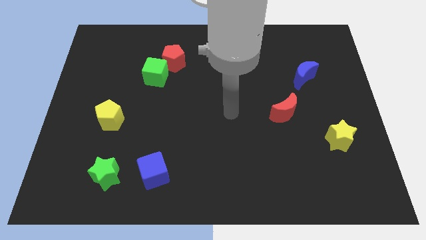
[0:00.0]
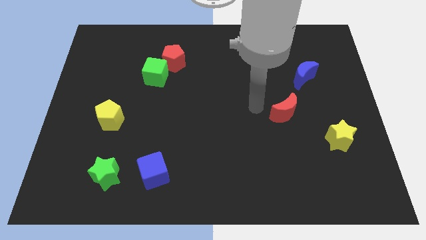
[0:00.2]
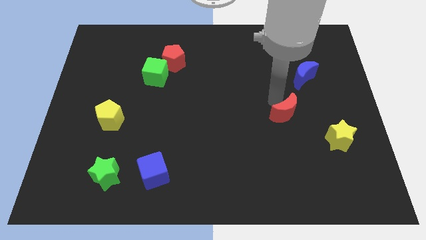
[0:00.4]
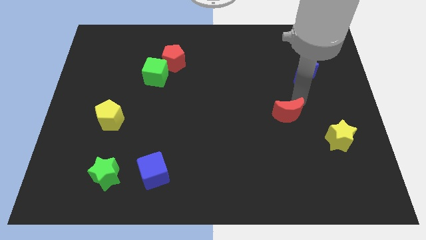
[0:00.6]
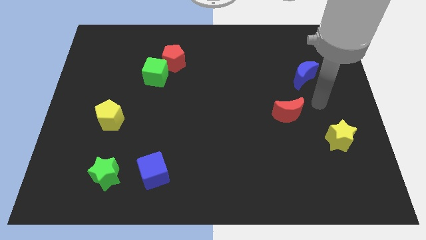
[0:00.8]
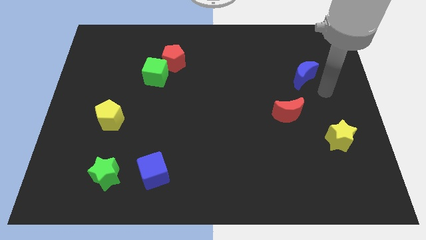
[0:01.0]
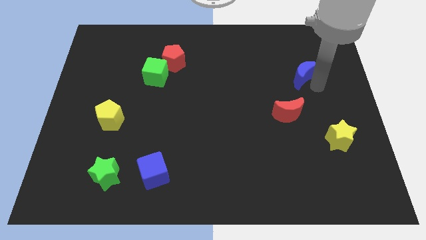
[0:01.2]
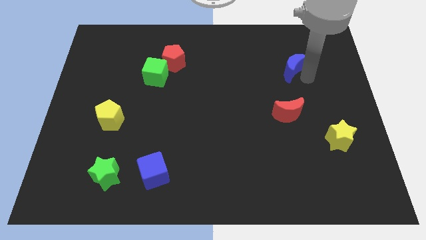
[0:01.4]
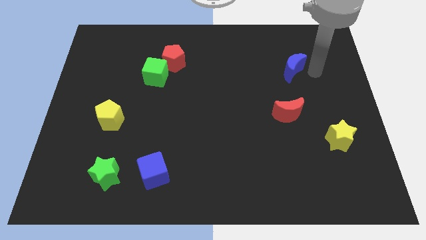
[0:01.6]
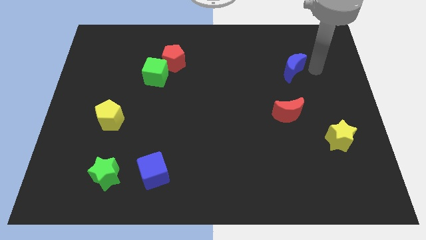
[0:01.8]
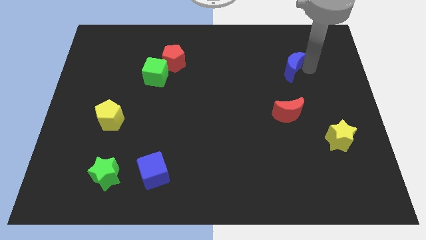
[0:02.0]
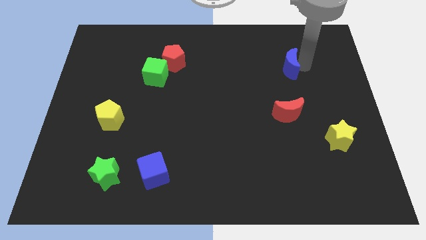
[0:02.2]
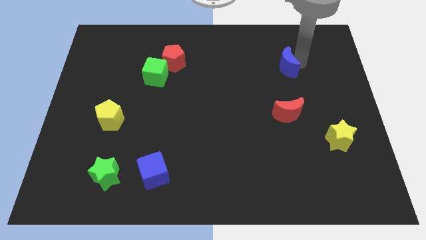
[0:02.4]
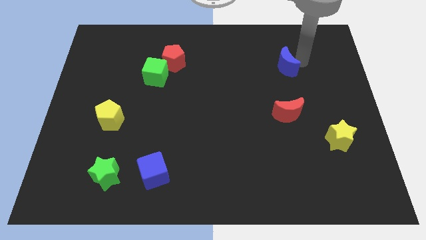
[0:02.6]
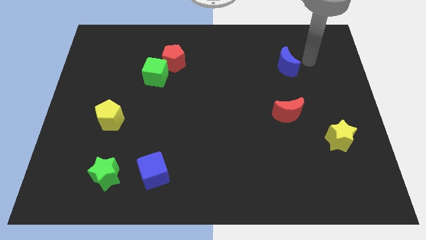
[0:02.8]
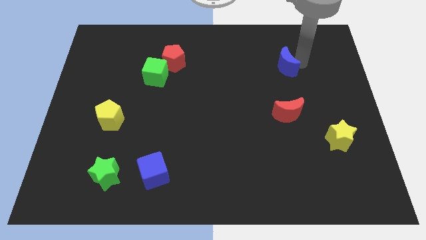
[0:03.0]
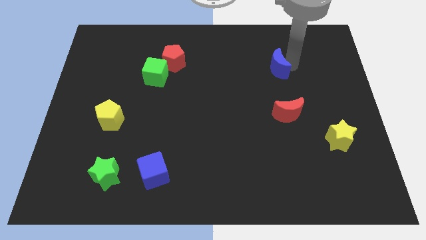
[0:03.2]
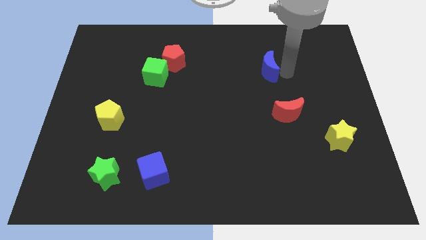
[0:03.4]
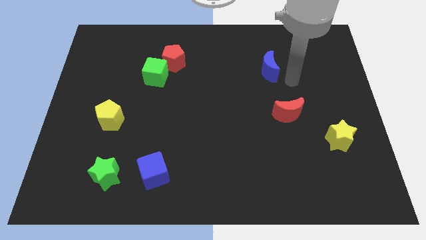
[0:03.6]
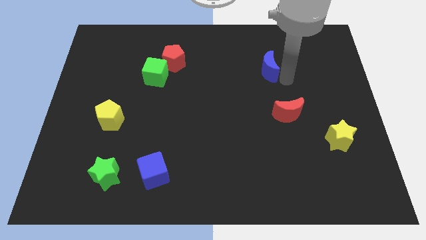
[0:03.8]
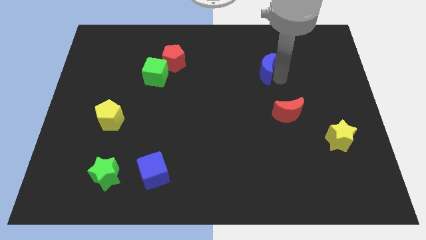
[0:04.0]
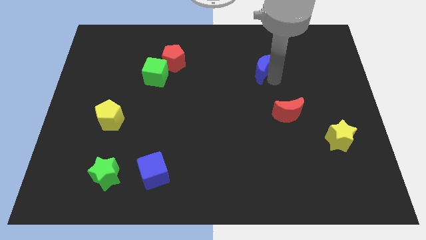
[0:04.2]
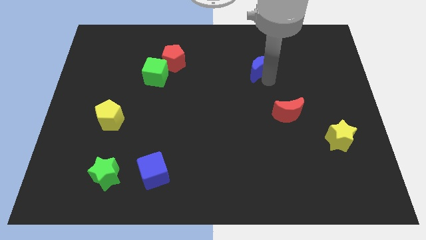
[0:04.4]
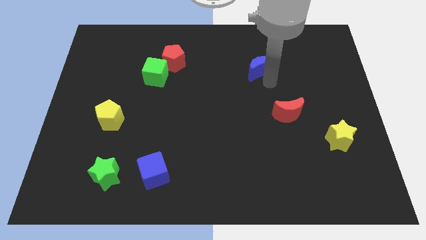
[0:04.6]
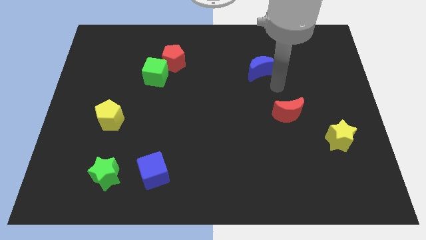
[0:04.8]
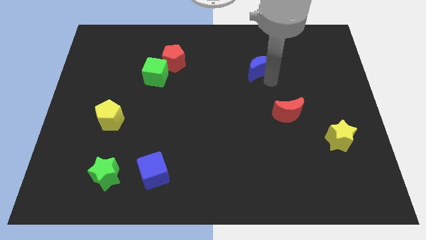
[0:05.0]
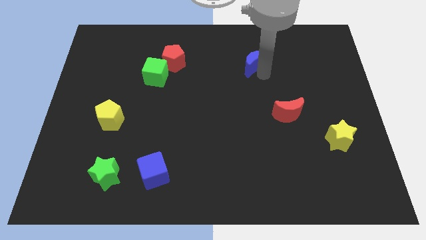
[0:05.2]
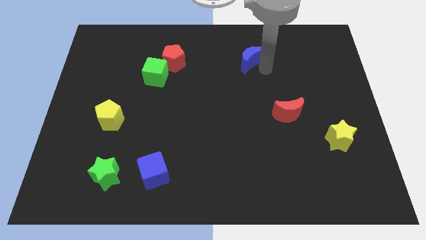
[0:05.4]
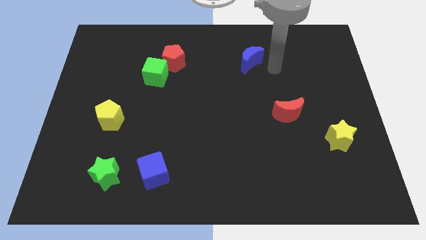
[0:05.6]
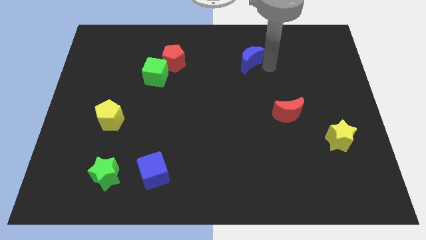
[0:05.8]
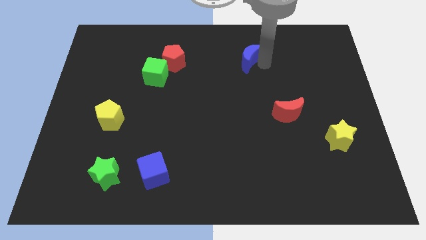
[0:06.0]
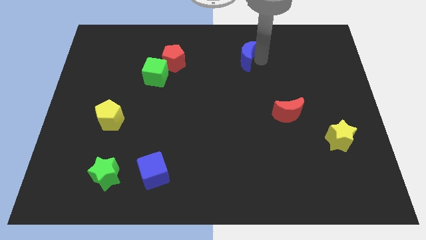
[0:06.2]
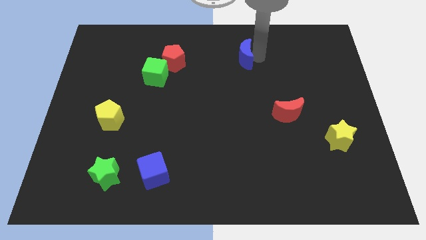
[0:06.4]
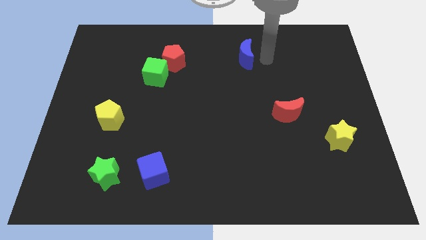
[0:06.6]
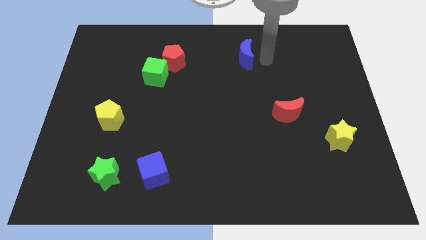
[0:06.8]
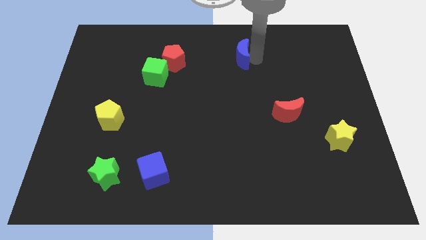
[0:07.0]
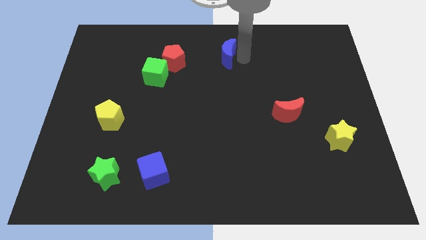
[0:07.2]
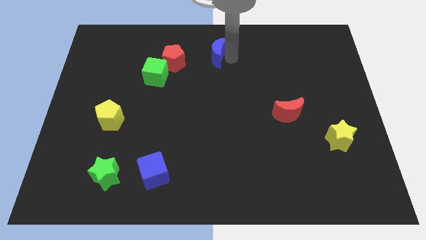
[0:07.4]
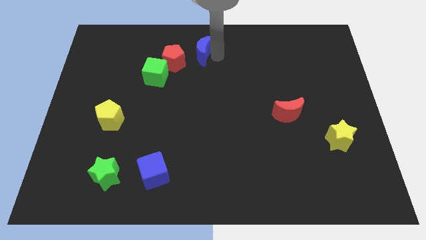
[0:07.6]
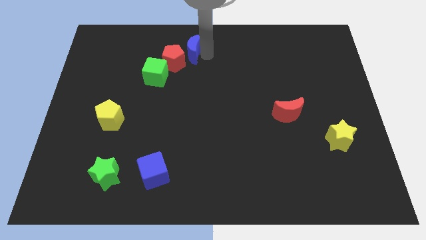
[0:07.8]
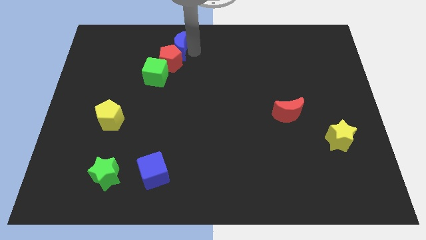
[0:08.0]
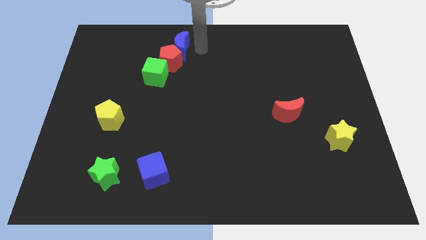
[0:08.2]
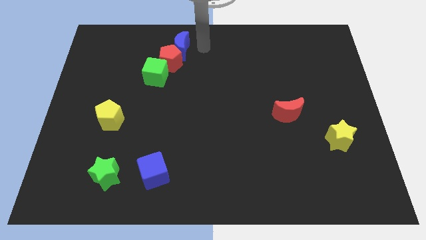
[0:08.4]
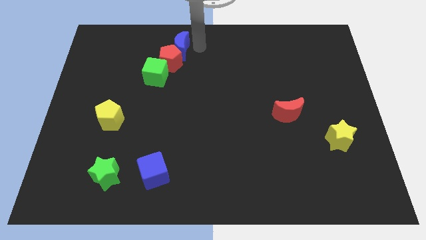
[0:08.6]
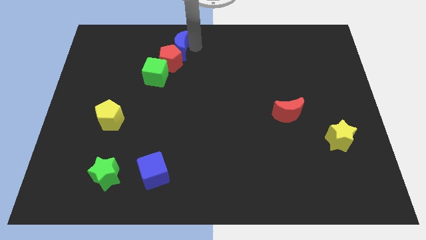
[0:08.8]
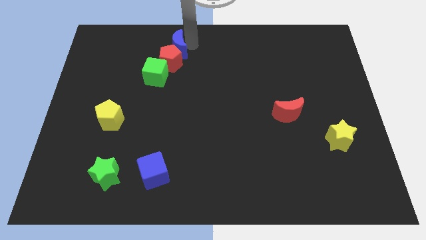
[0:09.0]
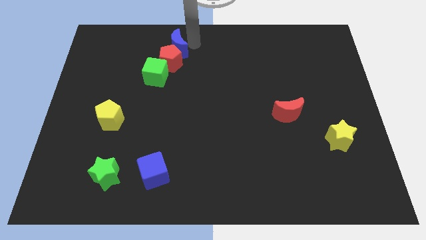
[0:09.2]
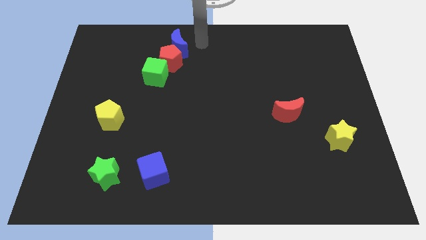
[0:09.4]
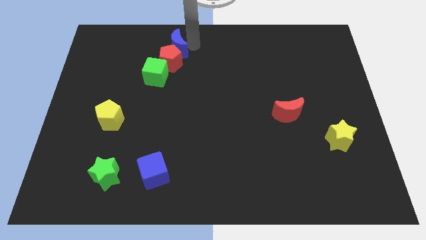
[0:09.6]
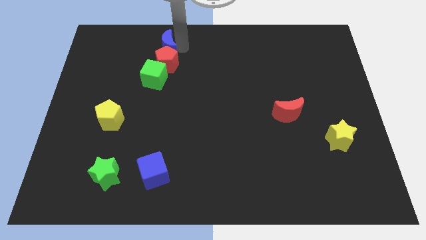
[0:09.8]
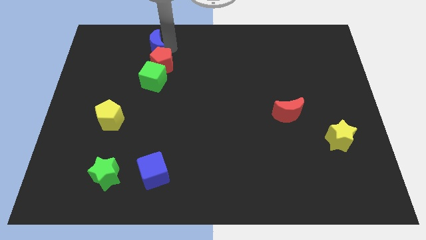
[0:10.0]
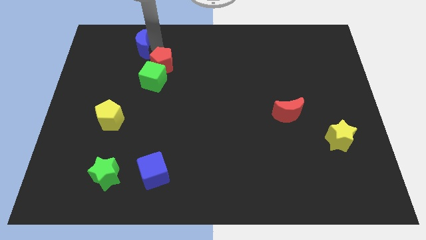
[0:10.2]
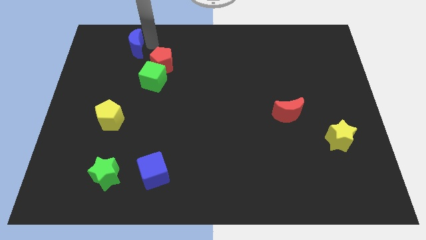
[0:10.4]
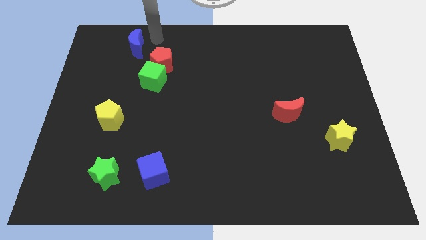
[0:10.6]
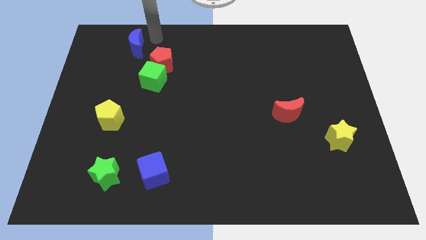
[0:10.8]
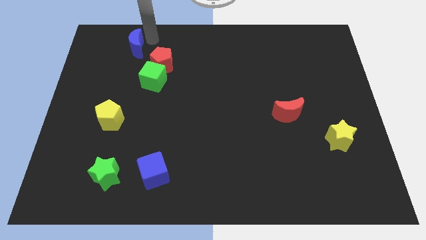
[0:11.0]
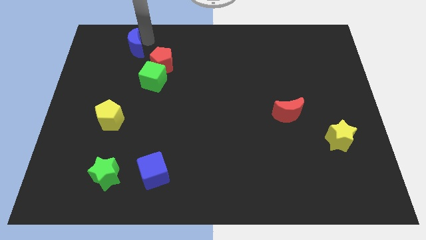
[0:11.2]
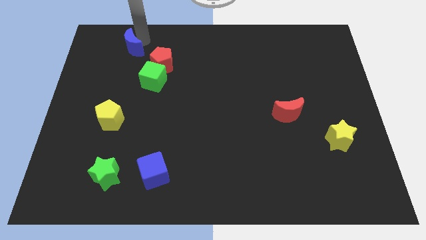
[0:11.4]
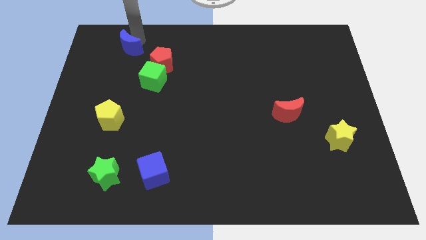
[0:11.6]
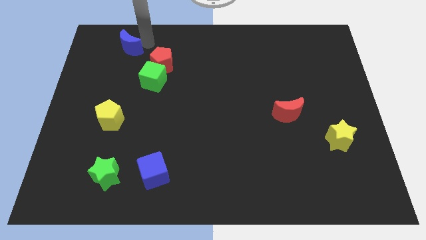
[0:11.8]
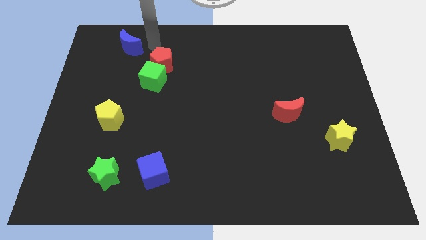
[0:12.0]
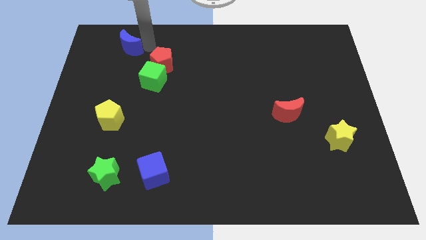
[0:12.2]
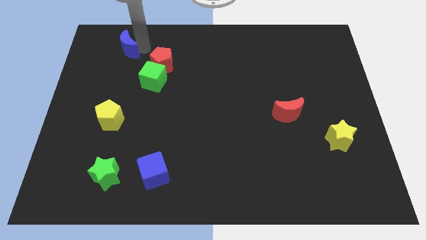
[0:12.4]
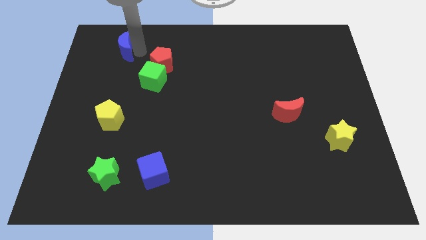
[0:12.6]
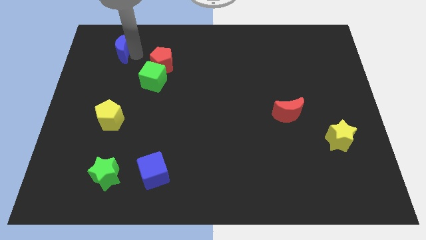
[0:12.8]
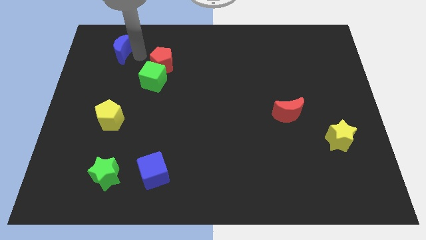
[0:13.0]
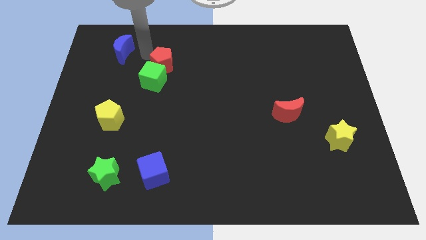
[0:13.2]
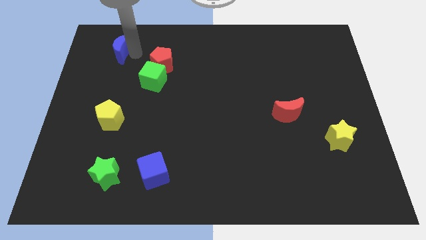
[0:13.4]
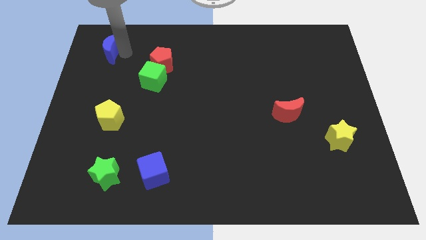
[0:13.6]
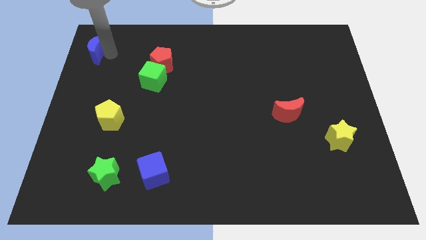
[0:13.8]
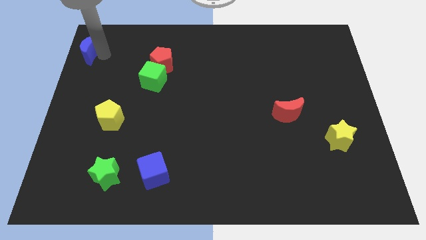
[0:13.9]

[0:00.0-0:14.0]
push the blue moon to the top left of the board
